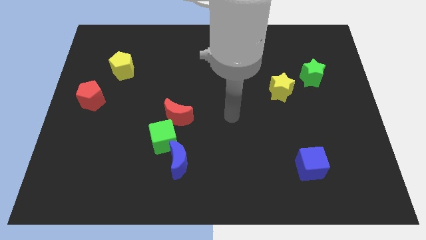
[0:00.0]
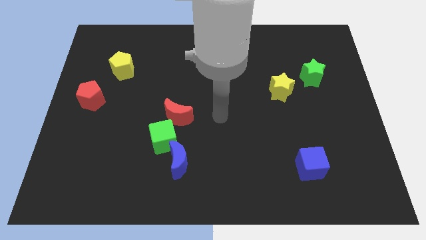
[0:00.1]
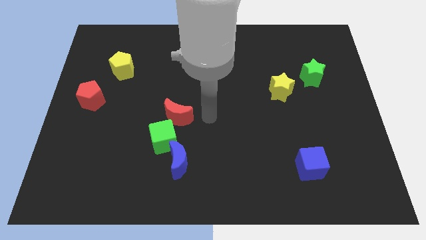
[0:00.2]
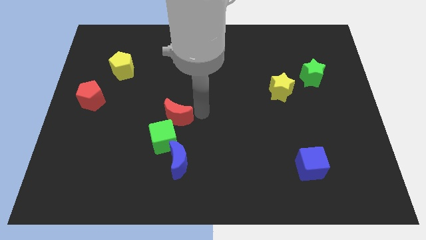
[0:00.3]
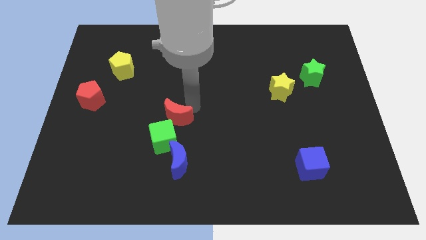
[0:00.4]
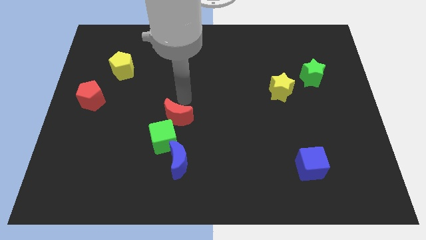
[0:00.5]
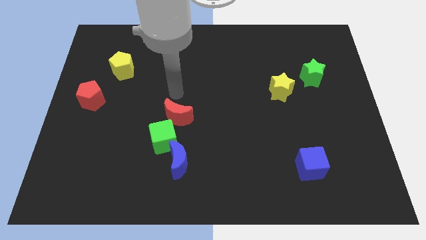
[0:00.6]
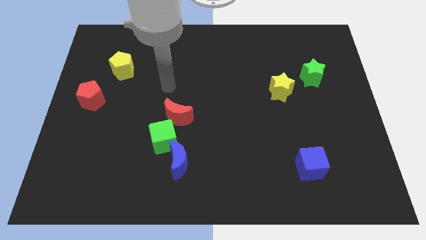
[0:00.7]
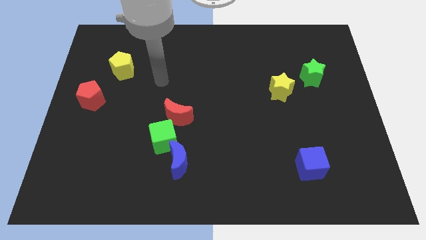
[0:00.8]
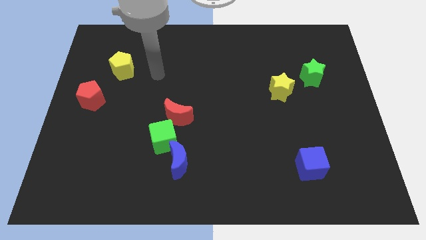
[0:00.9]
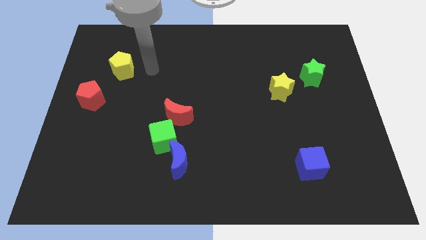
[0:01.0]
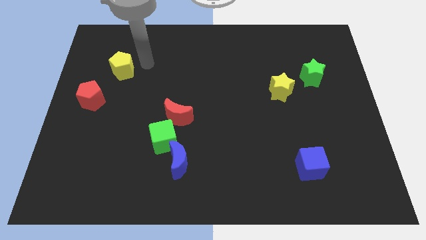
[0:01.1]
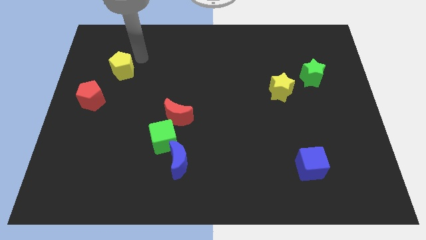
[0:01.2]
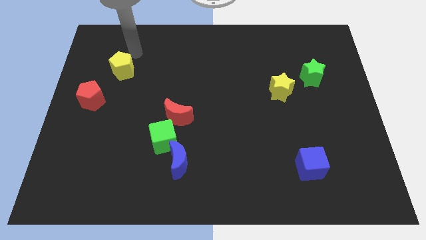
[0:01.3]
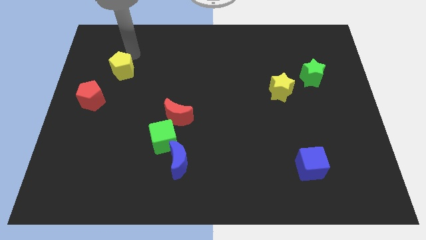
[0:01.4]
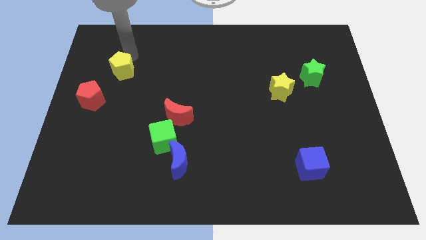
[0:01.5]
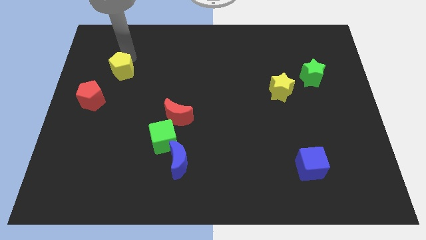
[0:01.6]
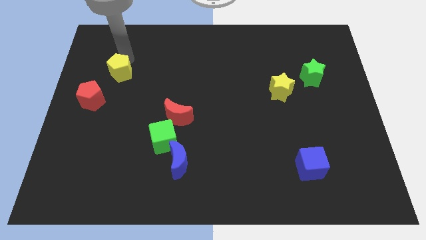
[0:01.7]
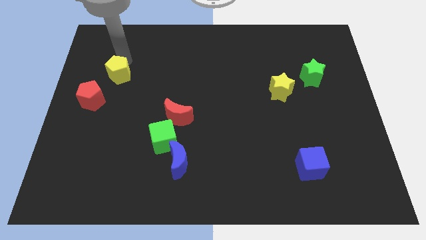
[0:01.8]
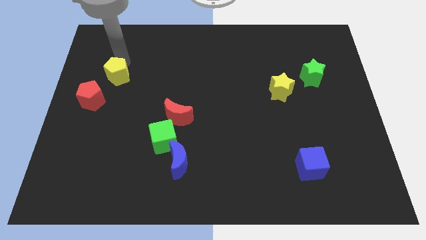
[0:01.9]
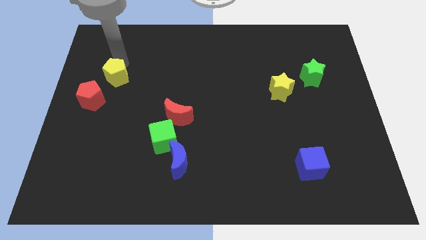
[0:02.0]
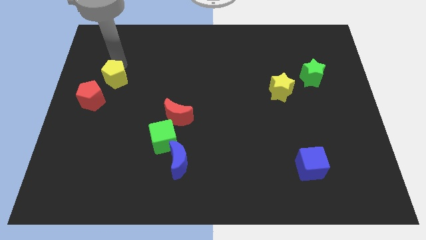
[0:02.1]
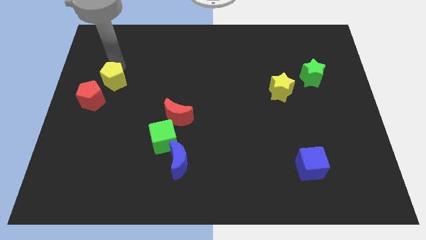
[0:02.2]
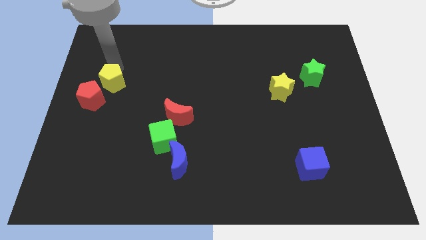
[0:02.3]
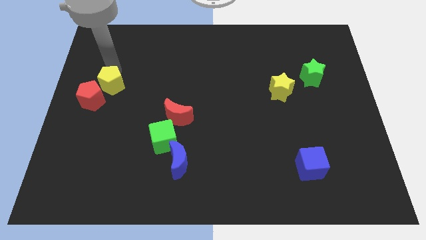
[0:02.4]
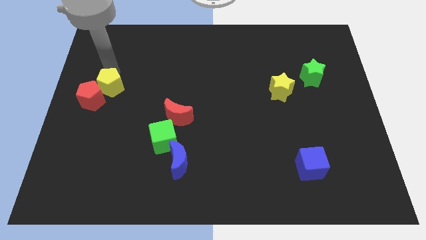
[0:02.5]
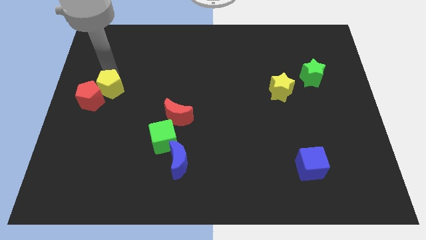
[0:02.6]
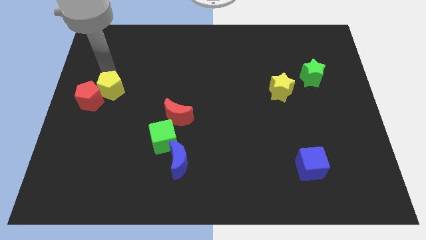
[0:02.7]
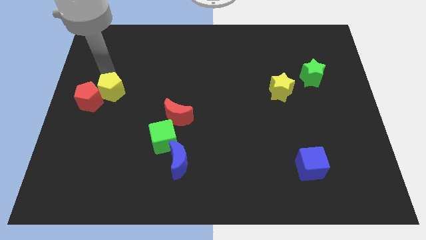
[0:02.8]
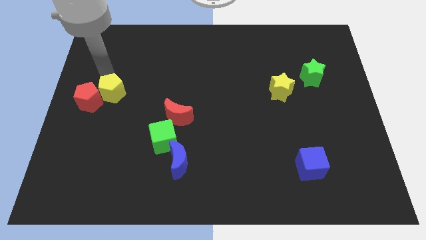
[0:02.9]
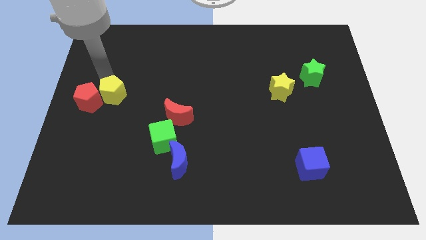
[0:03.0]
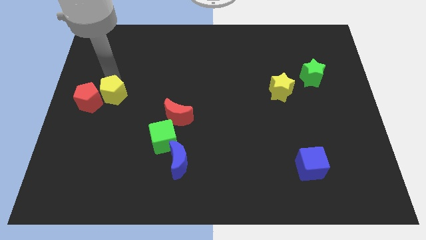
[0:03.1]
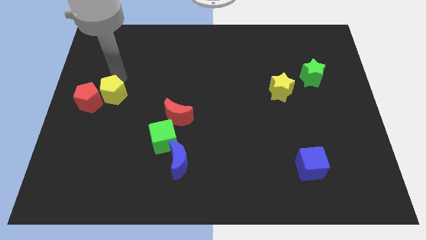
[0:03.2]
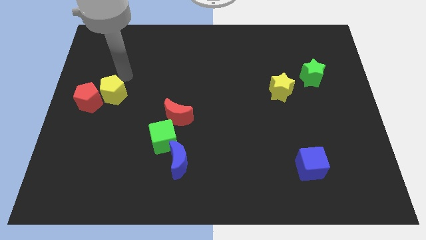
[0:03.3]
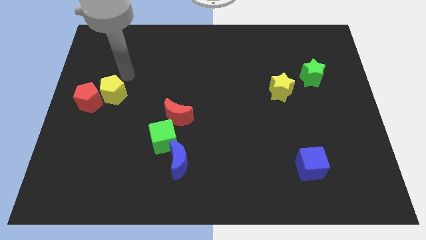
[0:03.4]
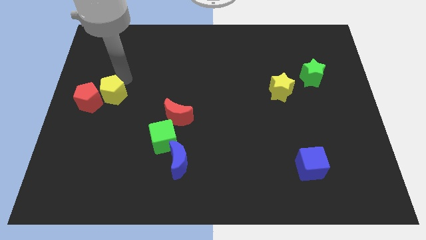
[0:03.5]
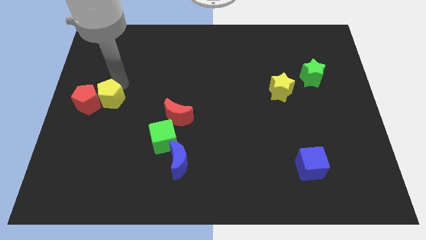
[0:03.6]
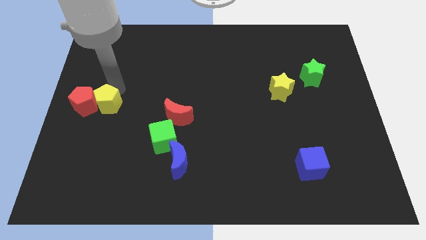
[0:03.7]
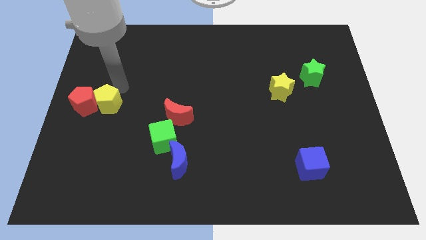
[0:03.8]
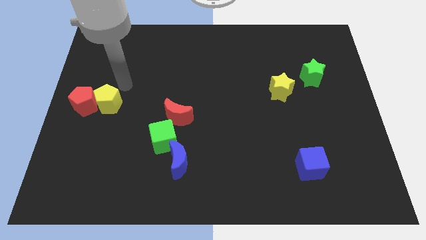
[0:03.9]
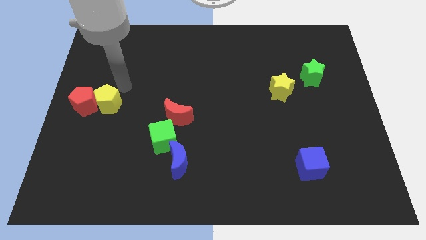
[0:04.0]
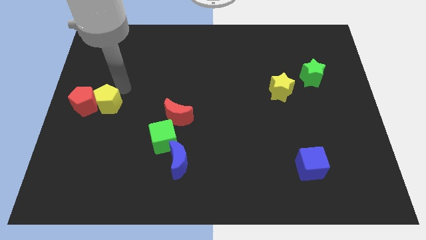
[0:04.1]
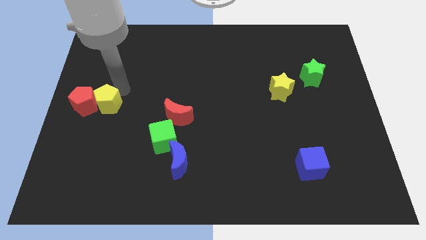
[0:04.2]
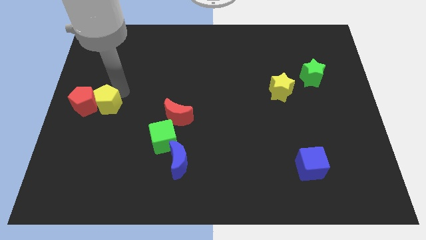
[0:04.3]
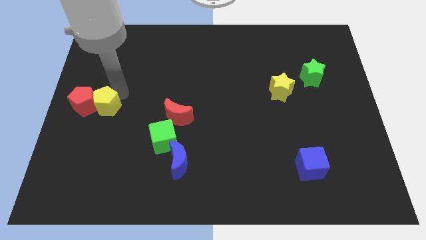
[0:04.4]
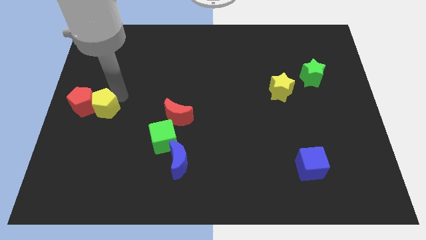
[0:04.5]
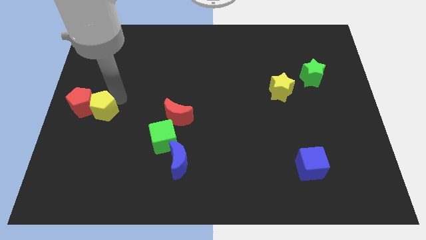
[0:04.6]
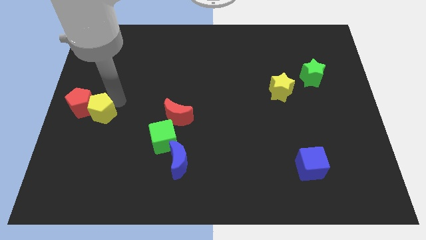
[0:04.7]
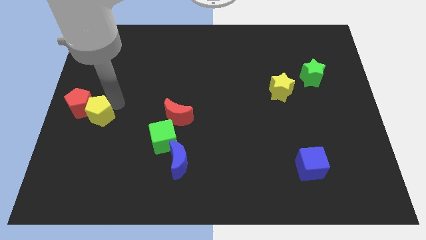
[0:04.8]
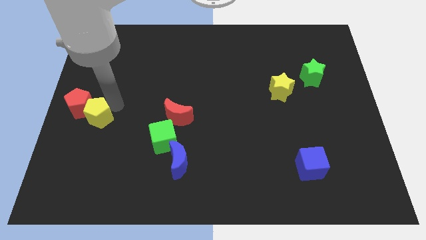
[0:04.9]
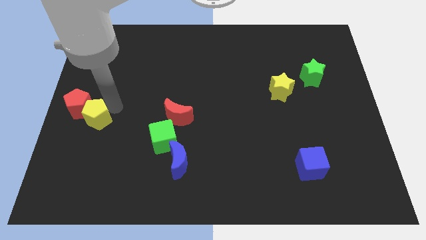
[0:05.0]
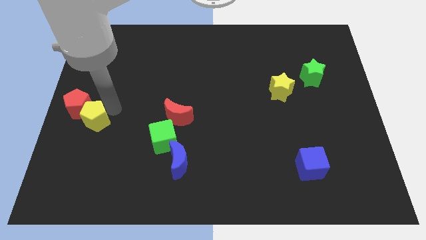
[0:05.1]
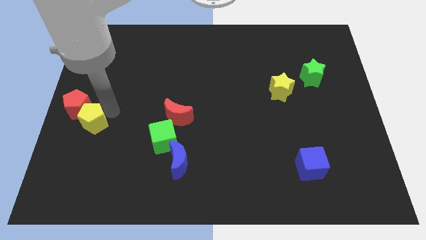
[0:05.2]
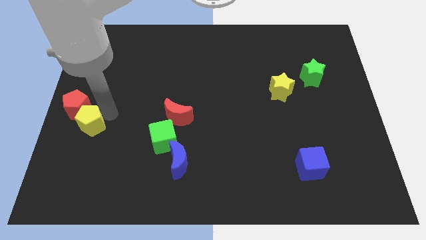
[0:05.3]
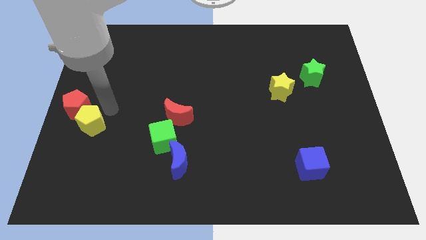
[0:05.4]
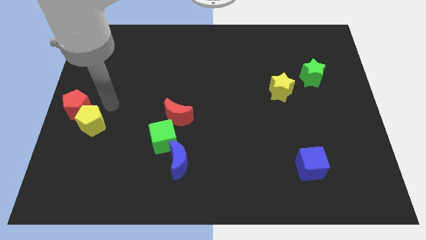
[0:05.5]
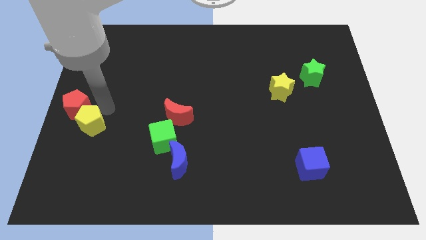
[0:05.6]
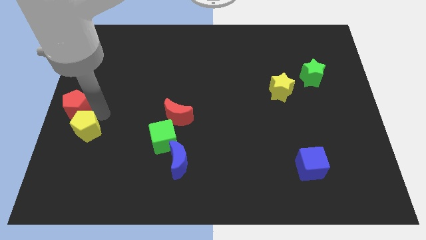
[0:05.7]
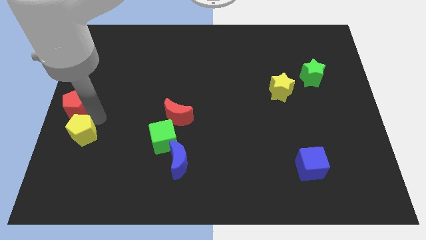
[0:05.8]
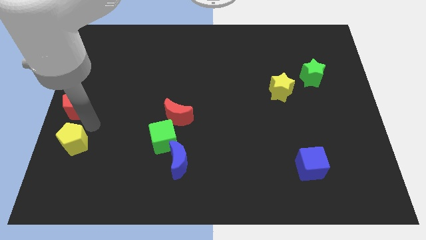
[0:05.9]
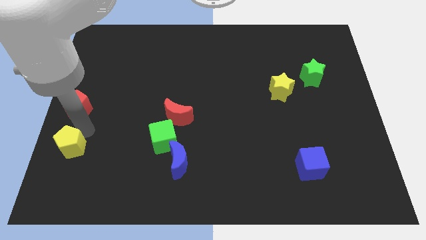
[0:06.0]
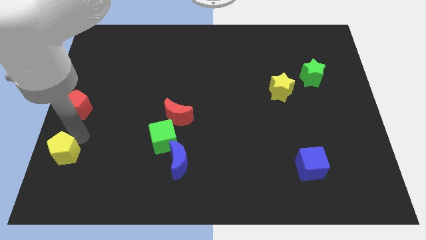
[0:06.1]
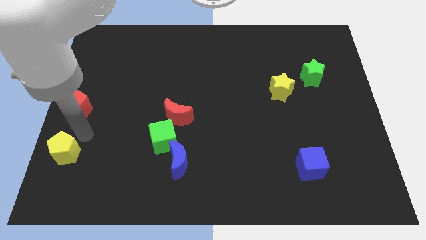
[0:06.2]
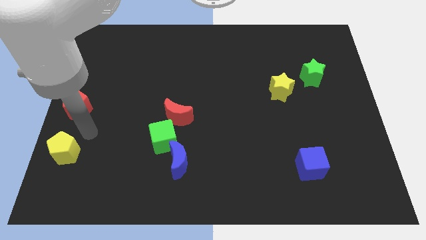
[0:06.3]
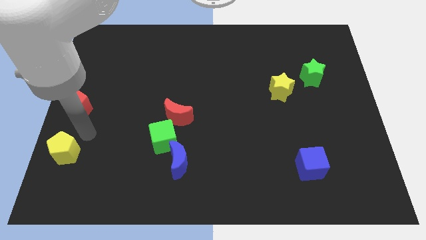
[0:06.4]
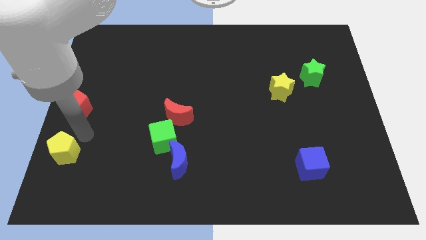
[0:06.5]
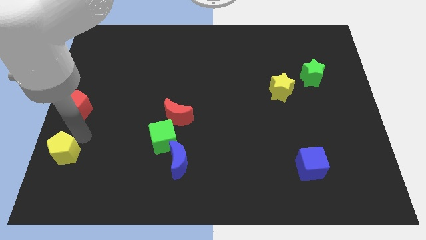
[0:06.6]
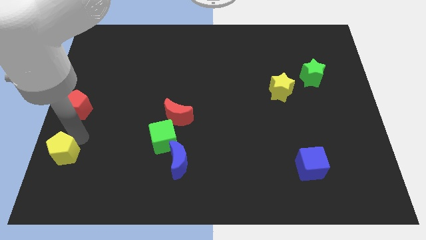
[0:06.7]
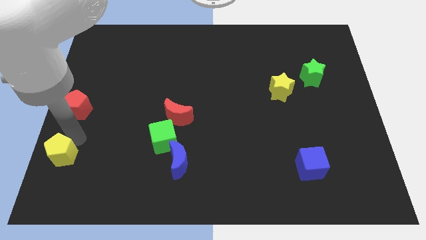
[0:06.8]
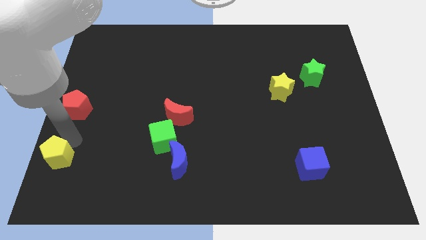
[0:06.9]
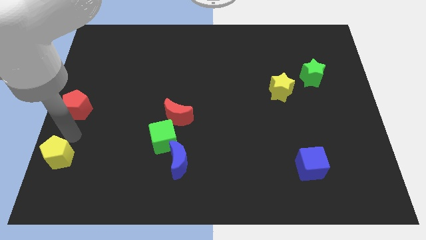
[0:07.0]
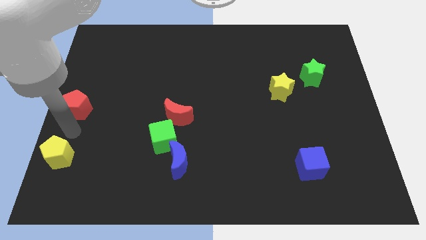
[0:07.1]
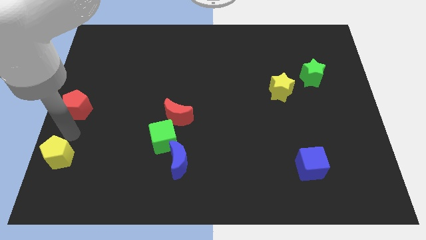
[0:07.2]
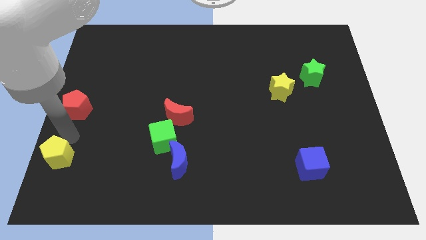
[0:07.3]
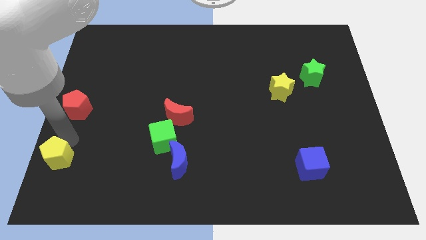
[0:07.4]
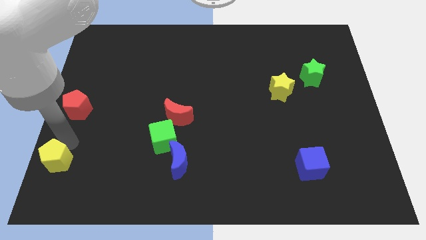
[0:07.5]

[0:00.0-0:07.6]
put the yellow pentagon to the bottom left corner

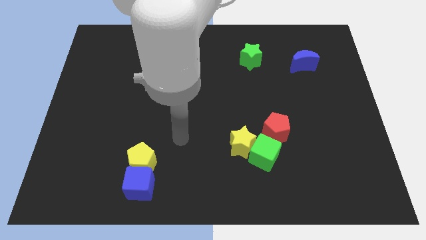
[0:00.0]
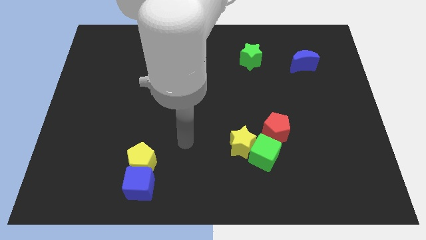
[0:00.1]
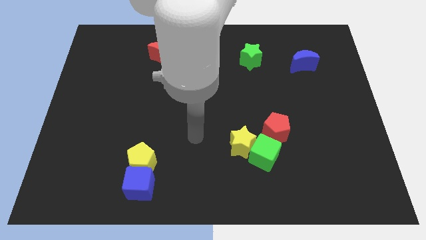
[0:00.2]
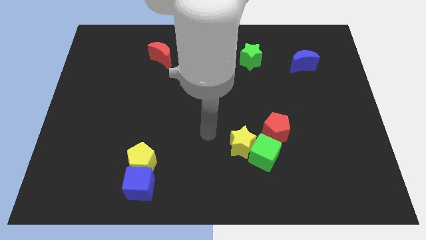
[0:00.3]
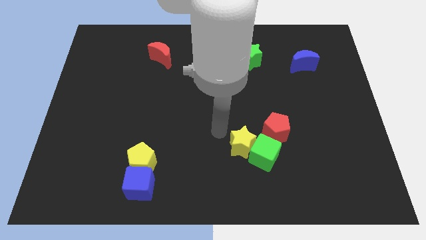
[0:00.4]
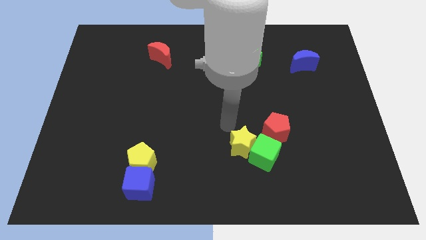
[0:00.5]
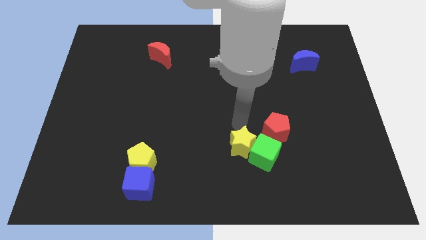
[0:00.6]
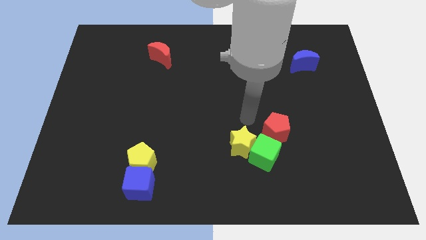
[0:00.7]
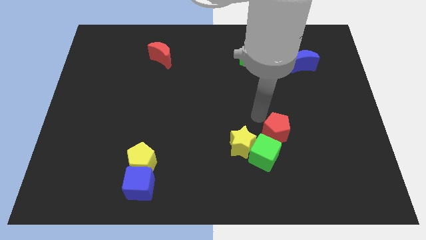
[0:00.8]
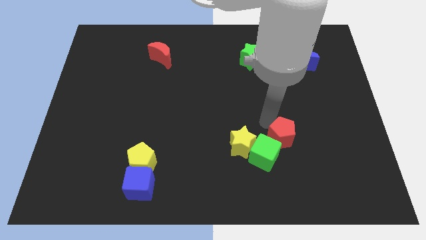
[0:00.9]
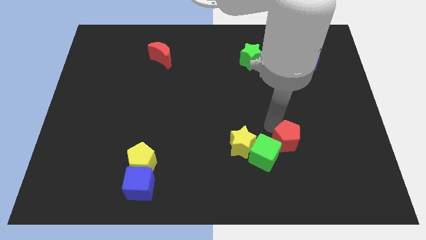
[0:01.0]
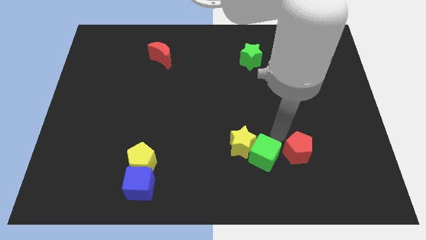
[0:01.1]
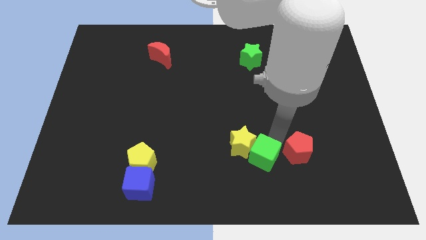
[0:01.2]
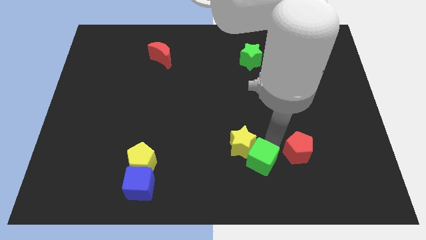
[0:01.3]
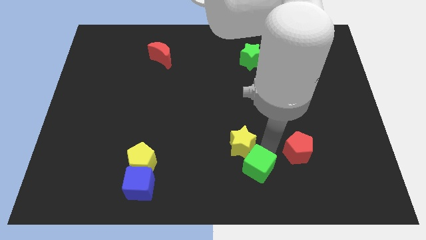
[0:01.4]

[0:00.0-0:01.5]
move the green cube to the bottom side
